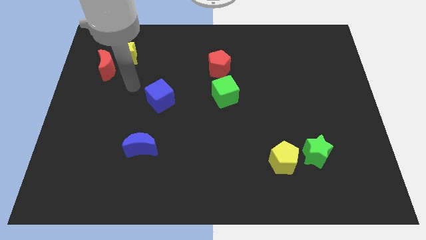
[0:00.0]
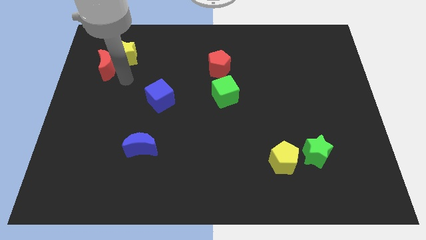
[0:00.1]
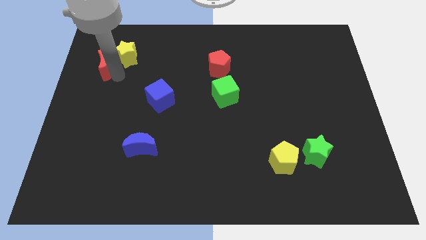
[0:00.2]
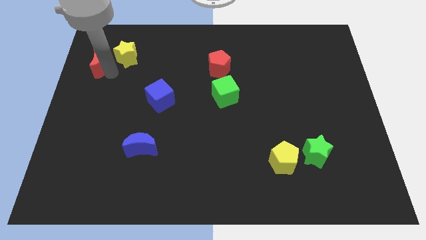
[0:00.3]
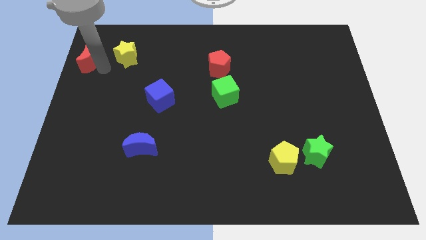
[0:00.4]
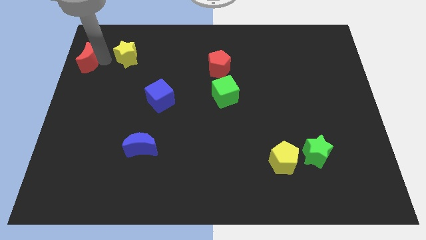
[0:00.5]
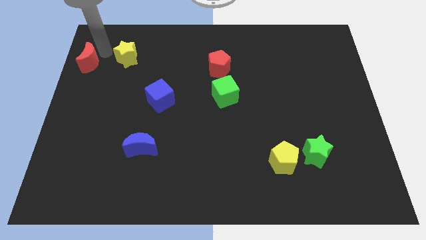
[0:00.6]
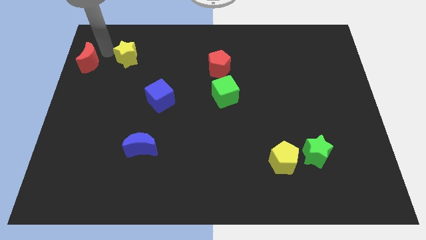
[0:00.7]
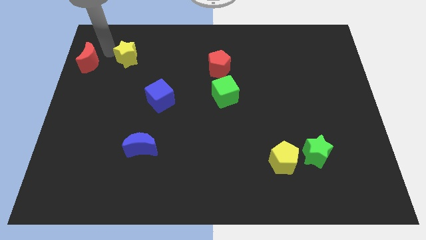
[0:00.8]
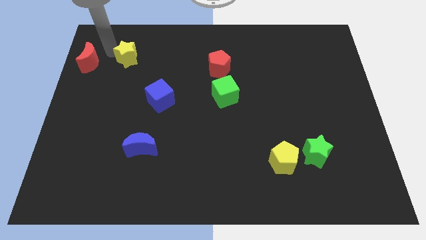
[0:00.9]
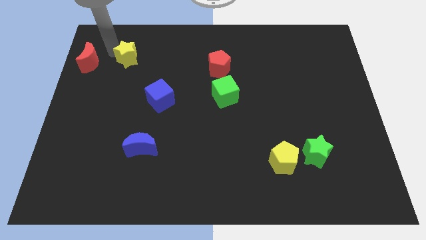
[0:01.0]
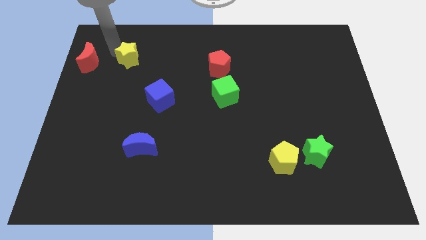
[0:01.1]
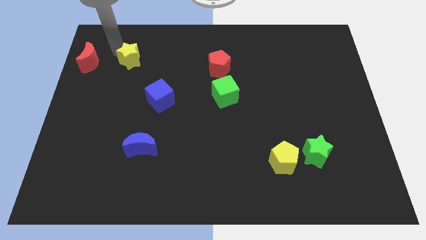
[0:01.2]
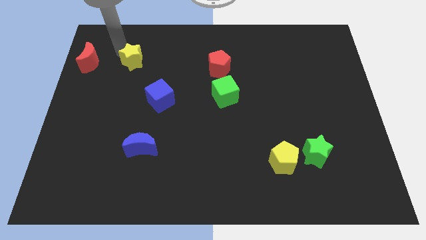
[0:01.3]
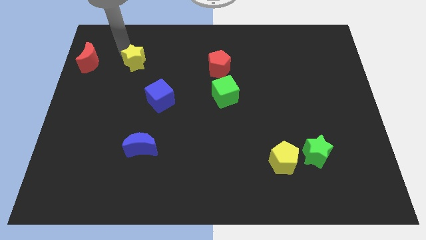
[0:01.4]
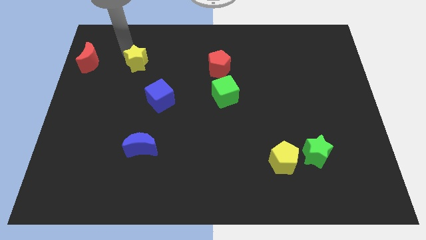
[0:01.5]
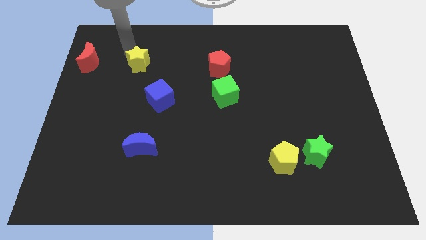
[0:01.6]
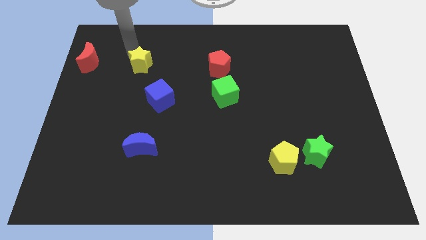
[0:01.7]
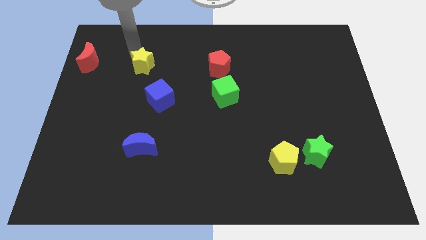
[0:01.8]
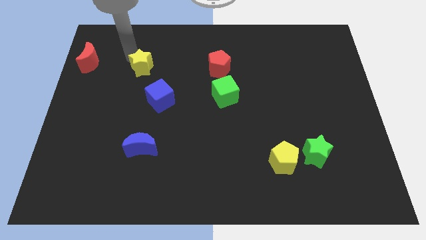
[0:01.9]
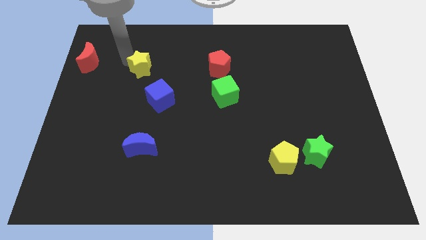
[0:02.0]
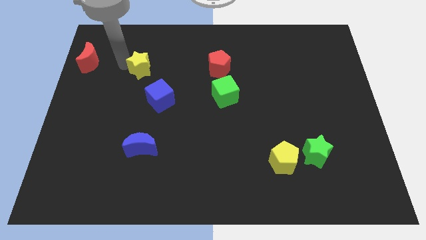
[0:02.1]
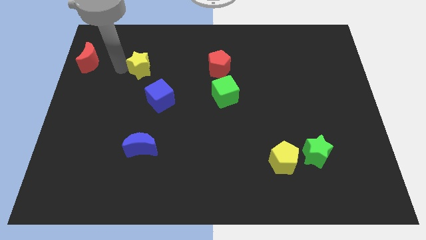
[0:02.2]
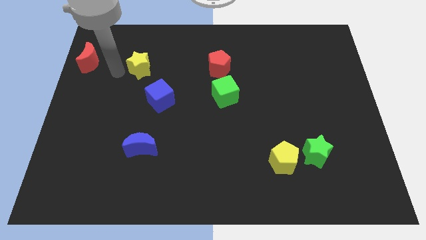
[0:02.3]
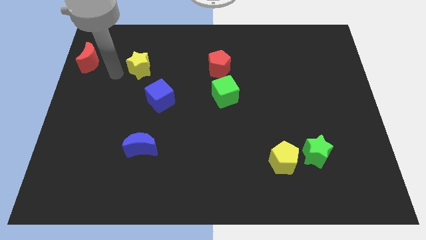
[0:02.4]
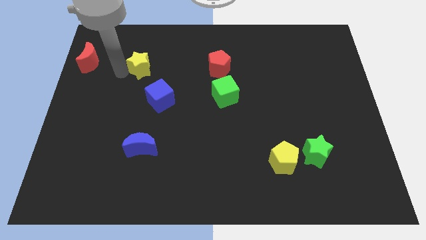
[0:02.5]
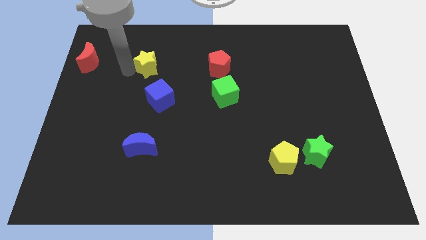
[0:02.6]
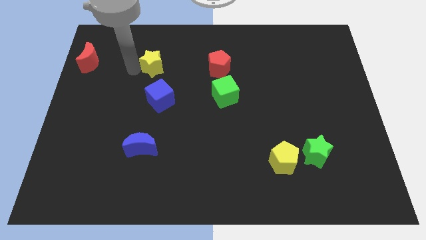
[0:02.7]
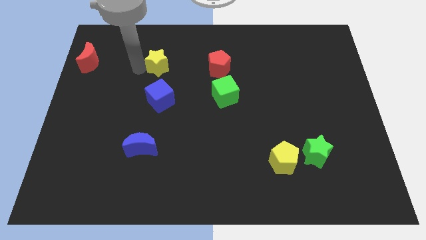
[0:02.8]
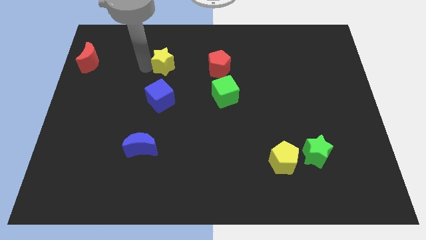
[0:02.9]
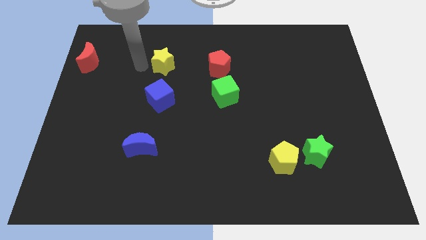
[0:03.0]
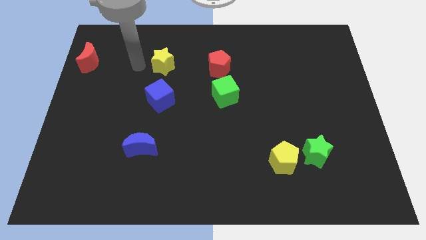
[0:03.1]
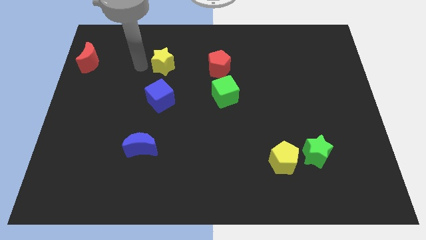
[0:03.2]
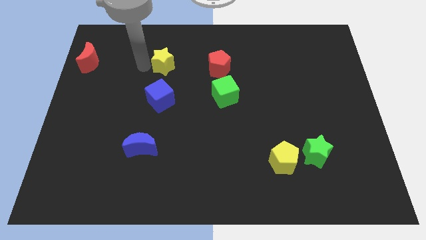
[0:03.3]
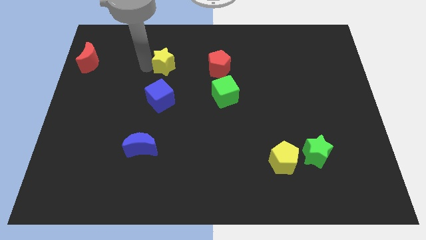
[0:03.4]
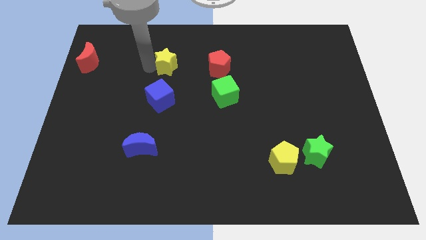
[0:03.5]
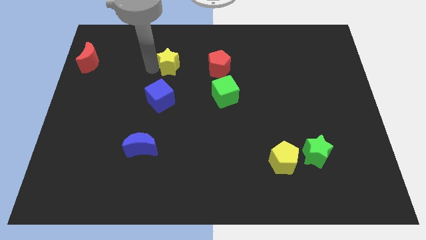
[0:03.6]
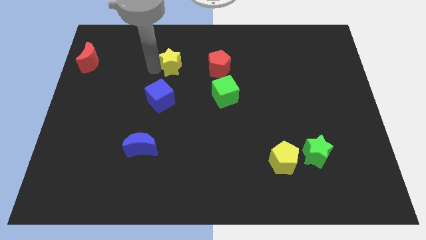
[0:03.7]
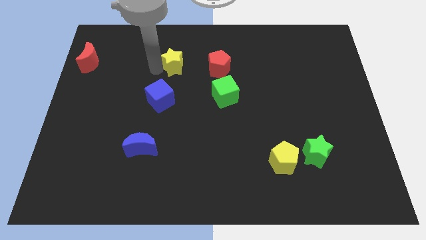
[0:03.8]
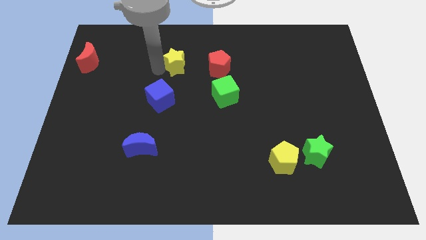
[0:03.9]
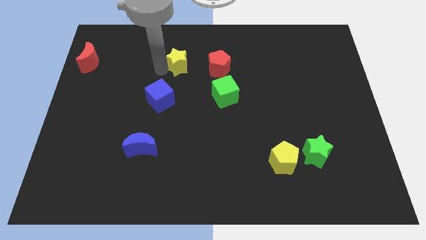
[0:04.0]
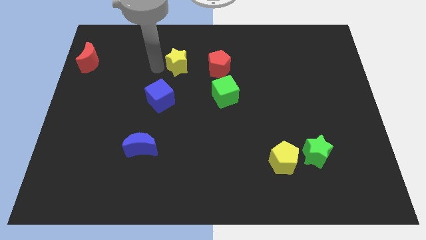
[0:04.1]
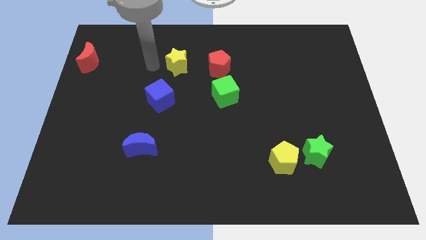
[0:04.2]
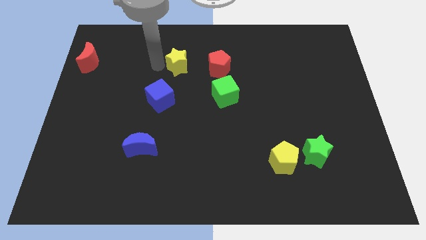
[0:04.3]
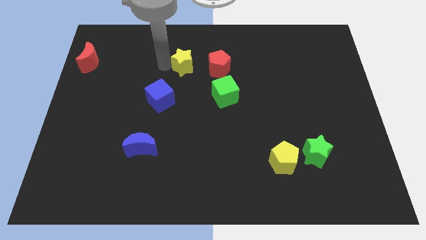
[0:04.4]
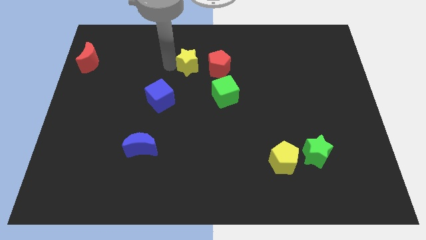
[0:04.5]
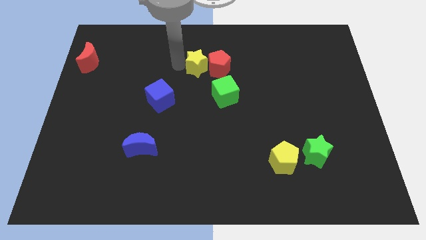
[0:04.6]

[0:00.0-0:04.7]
push the yellow star to the red pentagon

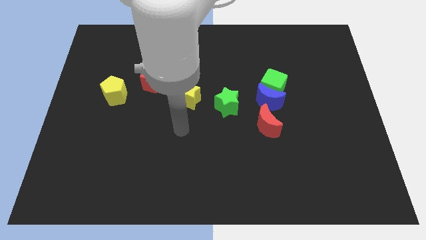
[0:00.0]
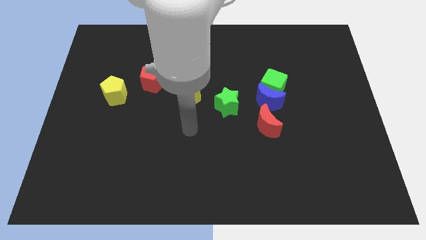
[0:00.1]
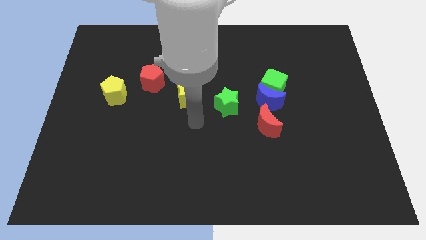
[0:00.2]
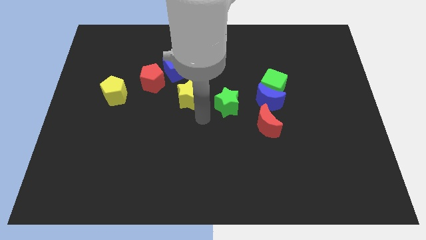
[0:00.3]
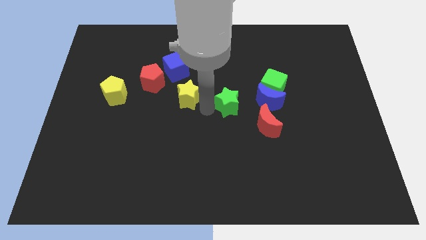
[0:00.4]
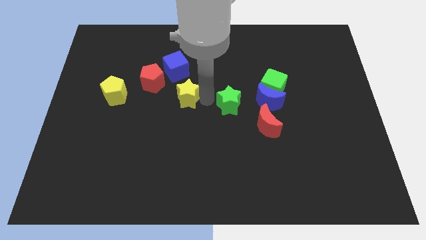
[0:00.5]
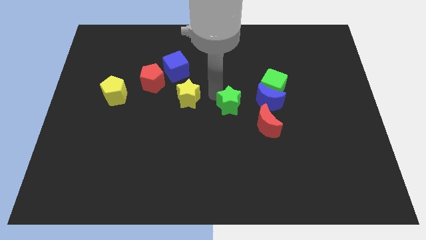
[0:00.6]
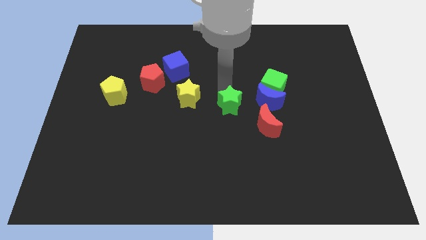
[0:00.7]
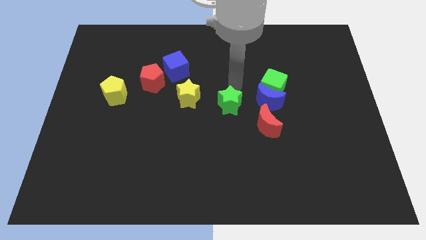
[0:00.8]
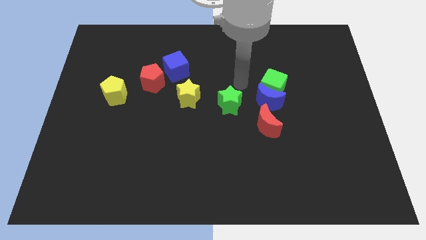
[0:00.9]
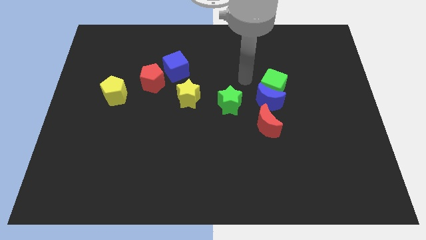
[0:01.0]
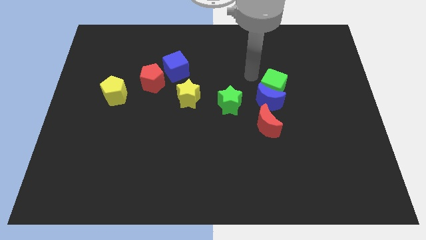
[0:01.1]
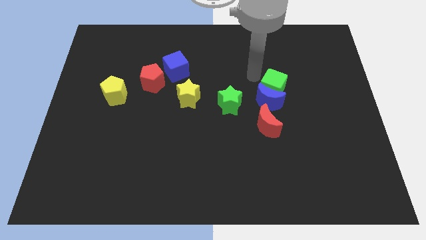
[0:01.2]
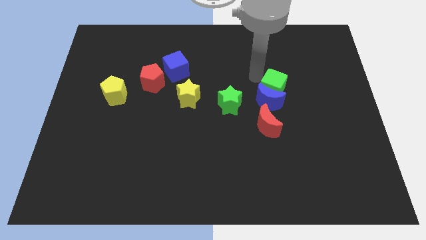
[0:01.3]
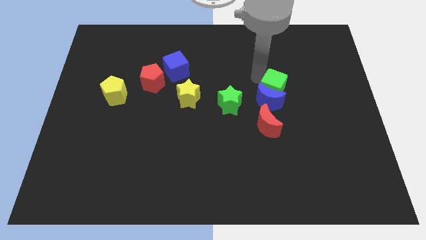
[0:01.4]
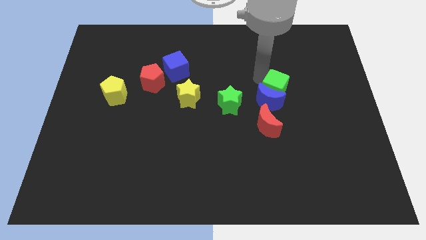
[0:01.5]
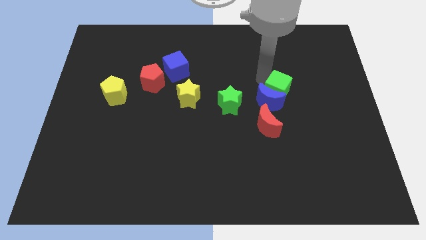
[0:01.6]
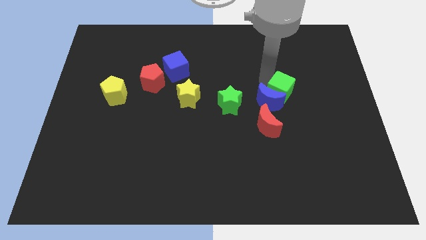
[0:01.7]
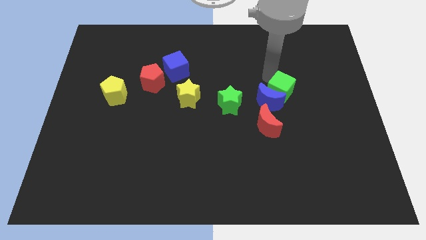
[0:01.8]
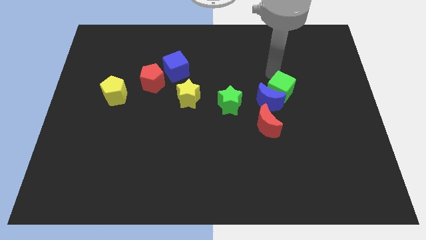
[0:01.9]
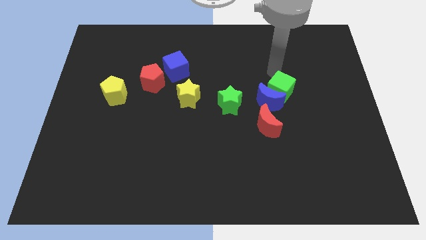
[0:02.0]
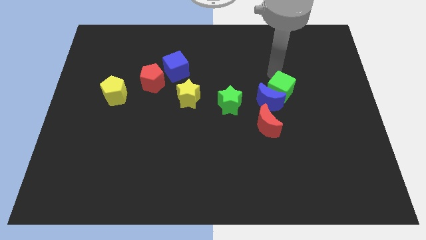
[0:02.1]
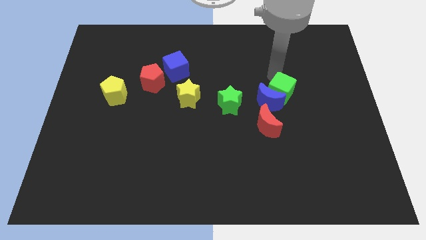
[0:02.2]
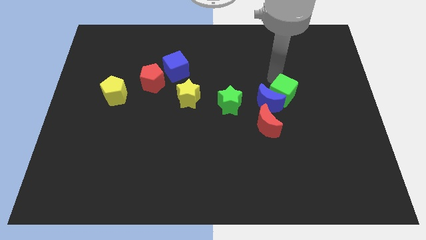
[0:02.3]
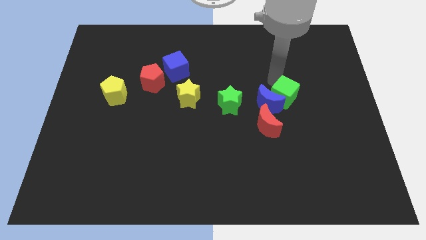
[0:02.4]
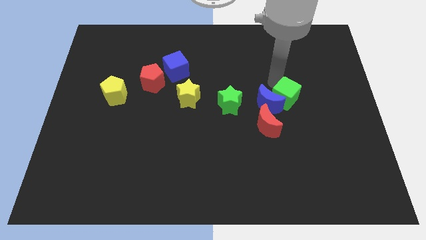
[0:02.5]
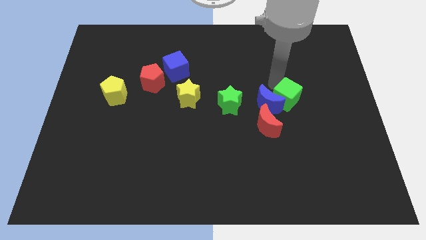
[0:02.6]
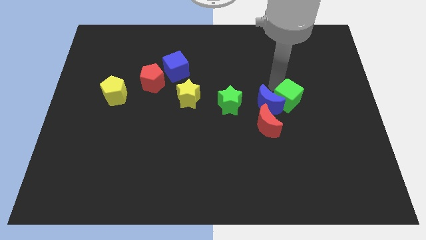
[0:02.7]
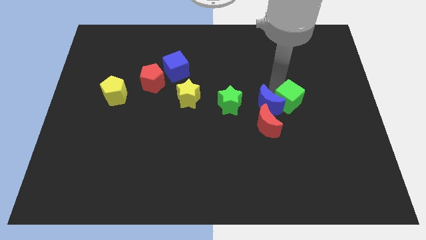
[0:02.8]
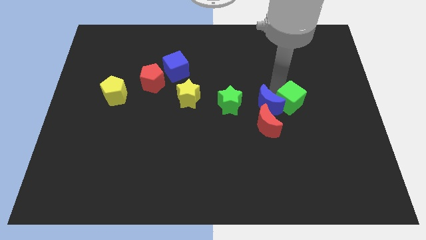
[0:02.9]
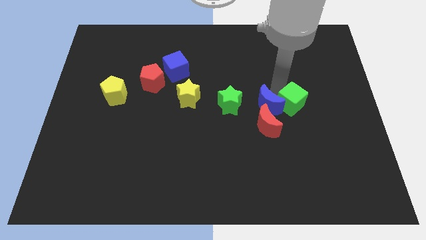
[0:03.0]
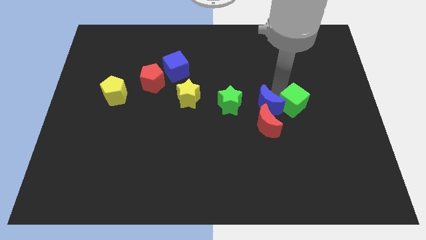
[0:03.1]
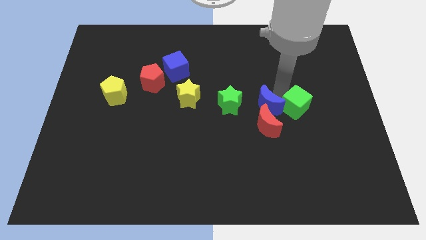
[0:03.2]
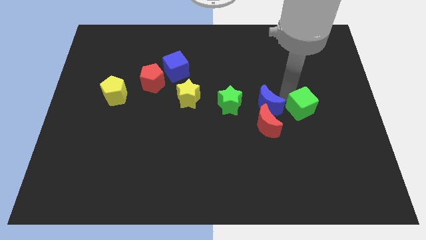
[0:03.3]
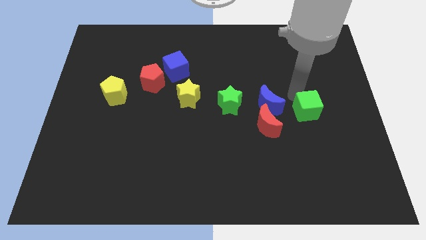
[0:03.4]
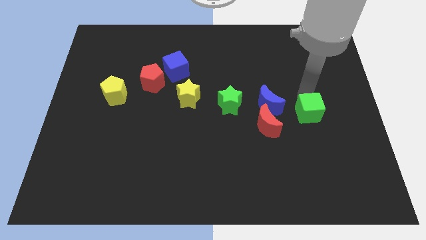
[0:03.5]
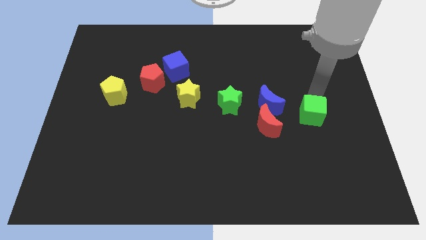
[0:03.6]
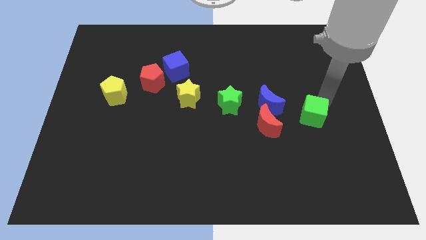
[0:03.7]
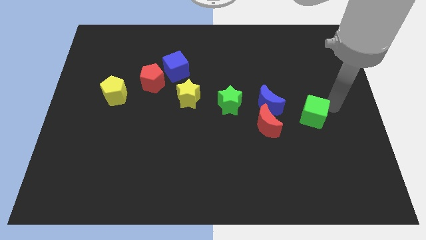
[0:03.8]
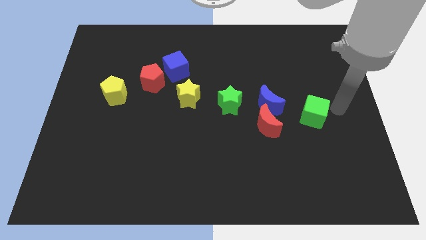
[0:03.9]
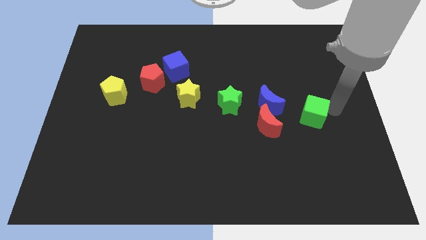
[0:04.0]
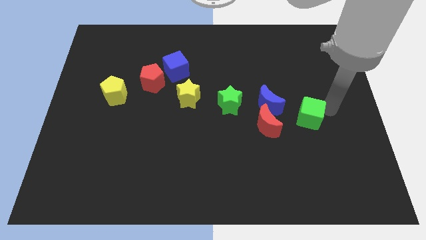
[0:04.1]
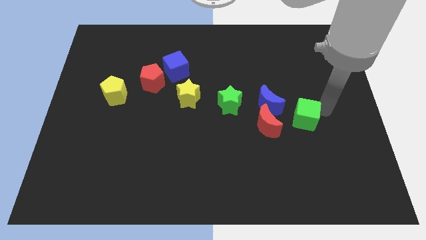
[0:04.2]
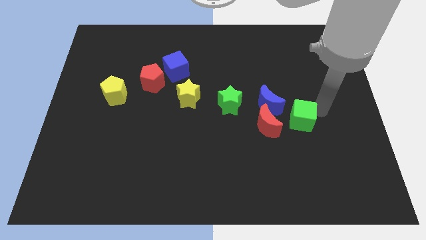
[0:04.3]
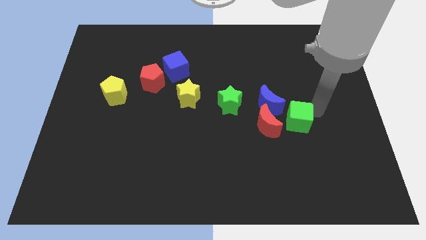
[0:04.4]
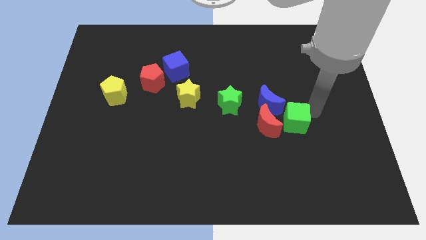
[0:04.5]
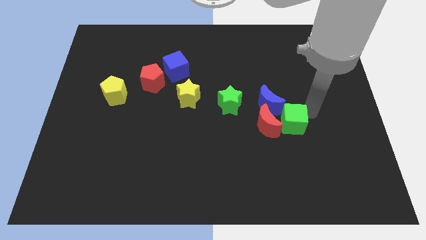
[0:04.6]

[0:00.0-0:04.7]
push the green cube next to the red moon
